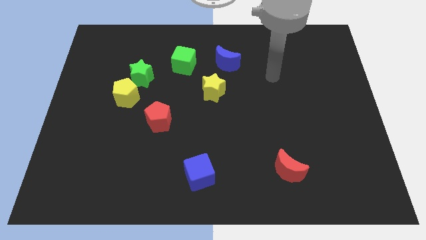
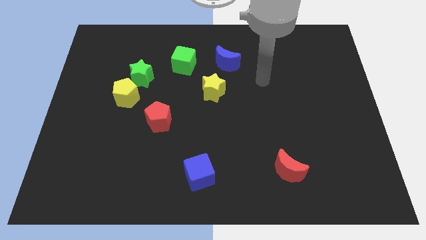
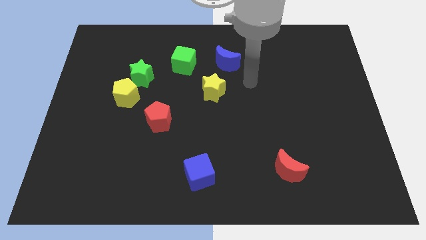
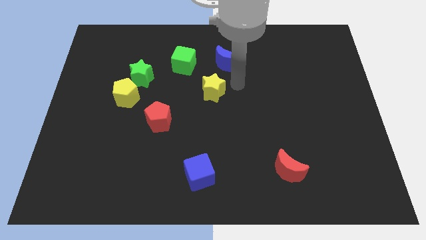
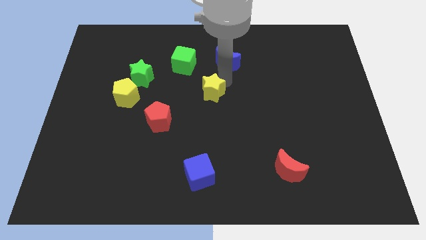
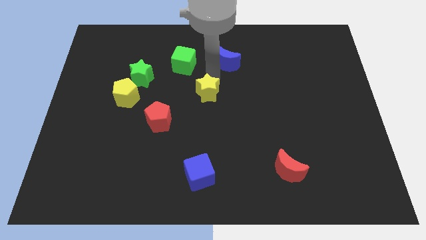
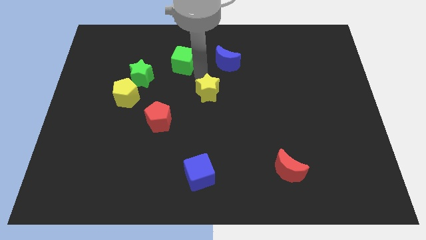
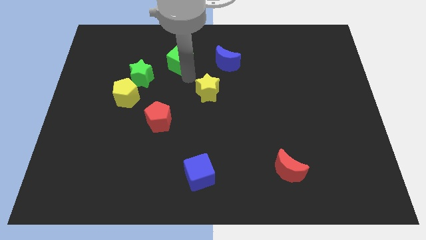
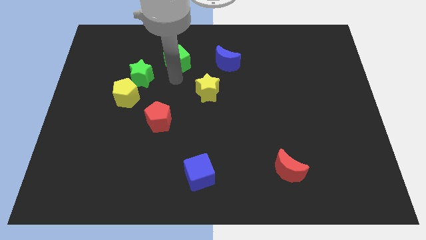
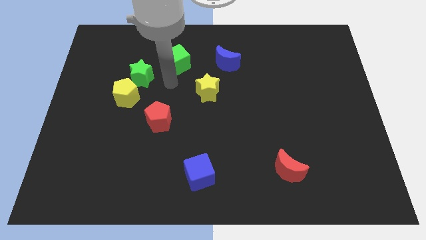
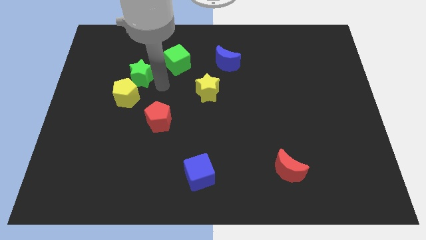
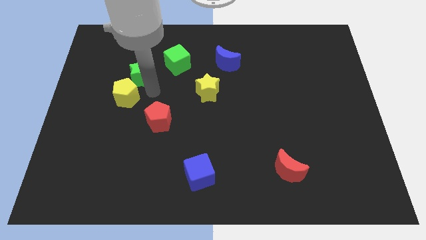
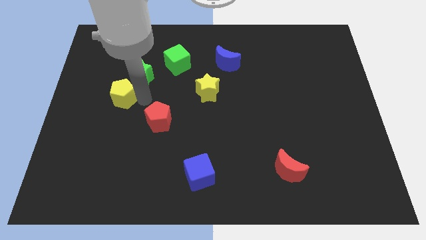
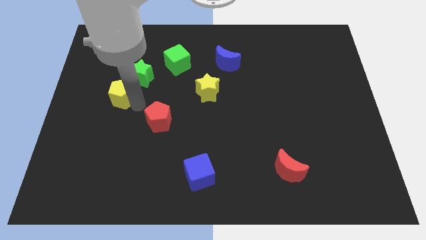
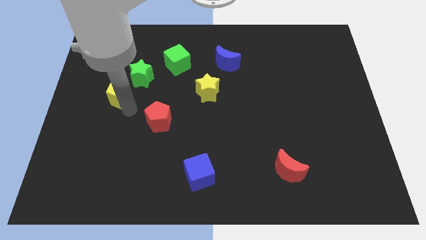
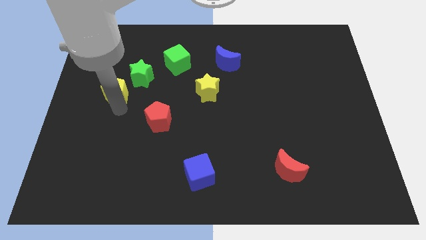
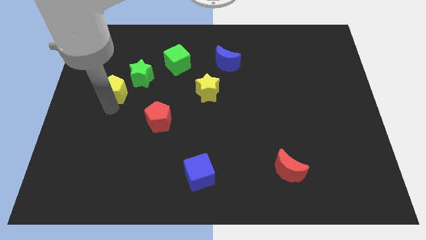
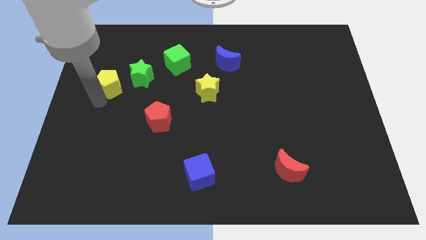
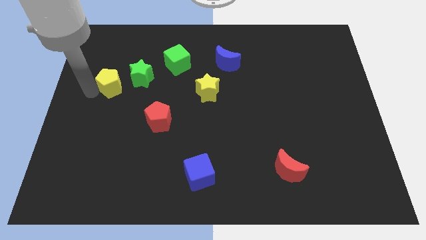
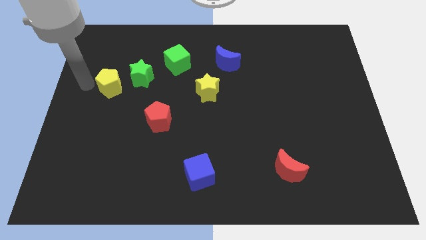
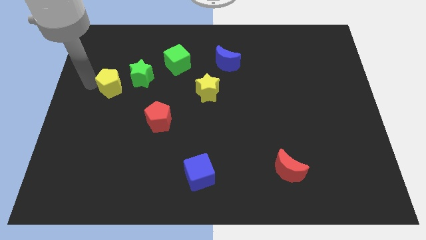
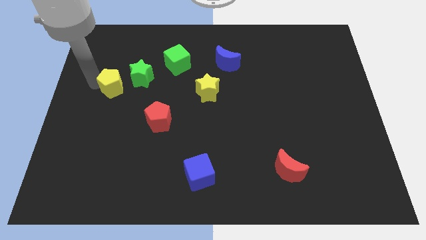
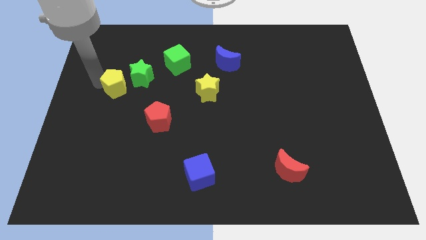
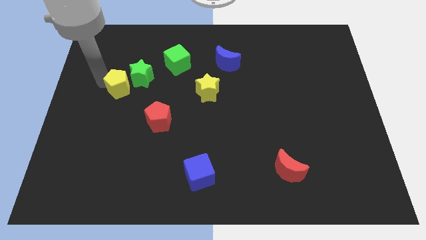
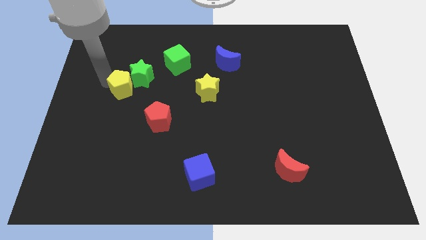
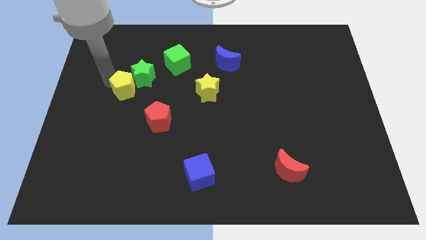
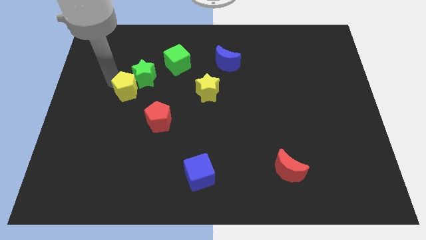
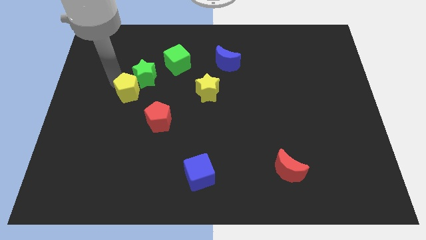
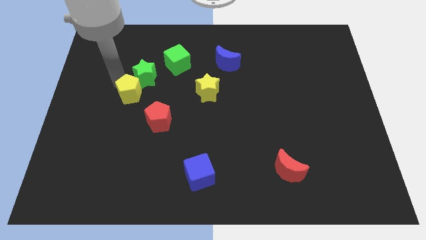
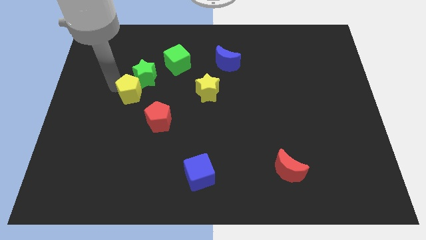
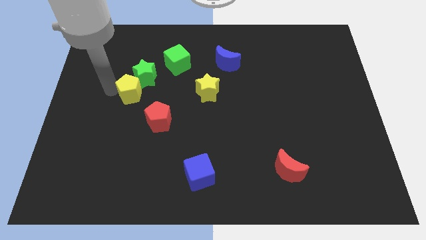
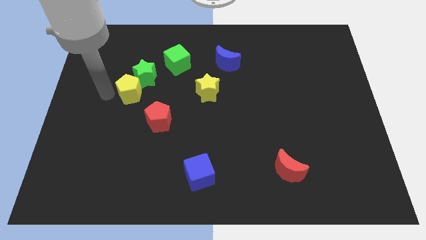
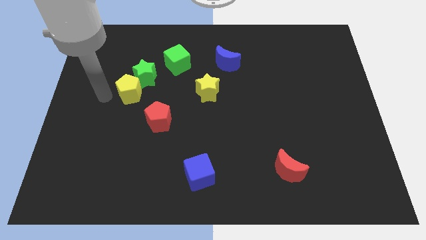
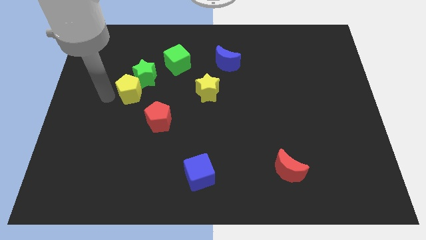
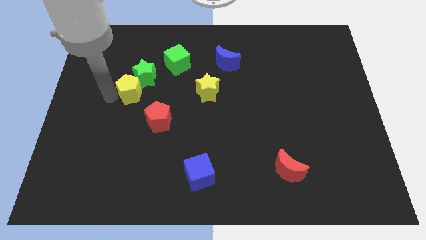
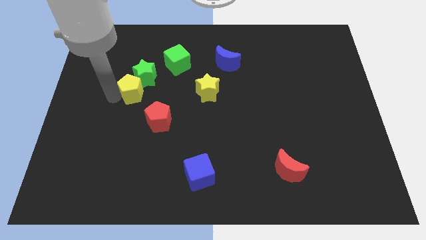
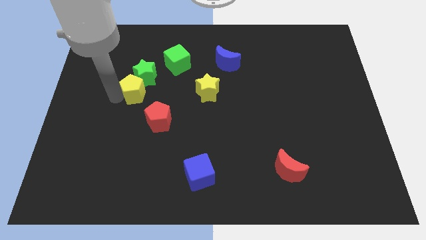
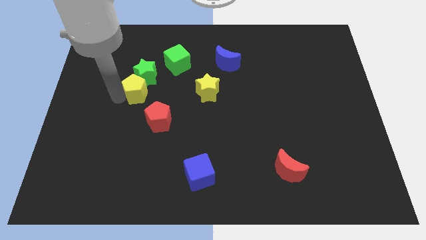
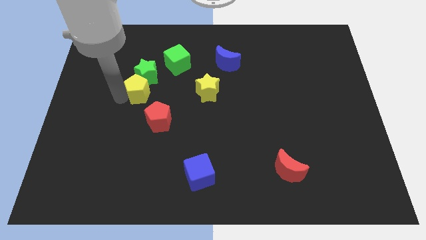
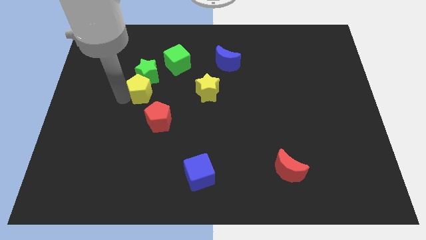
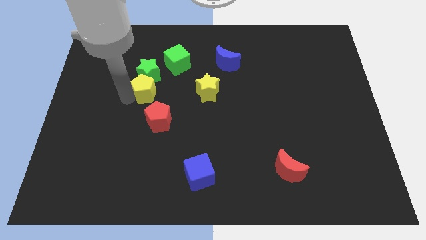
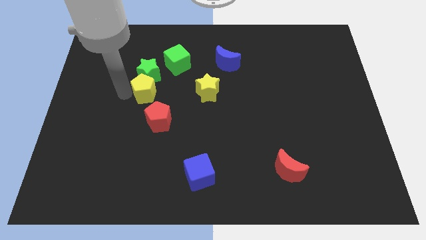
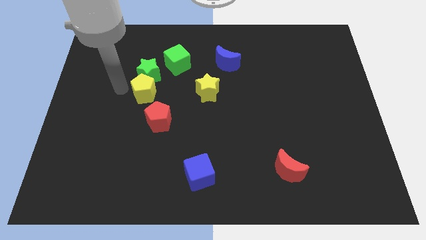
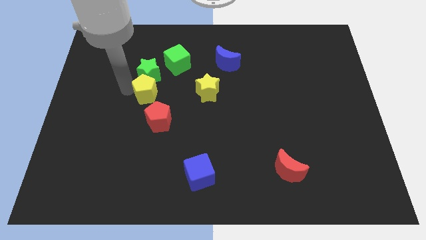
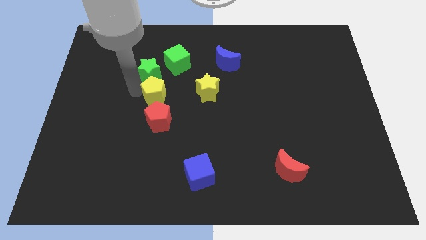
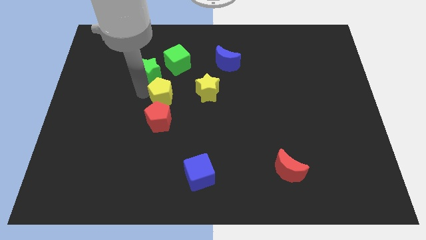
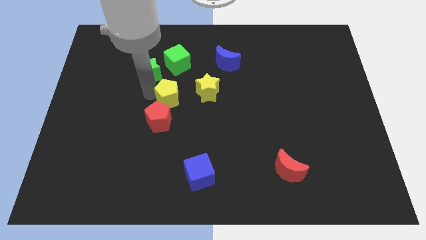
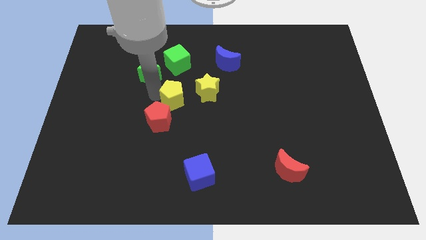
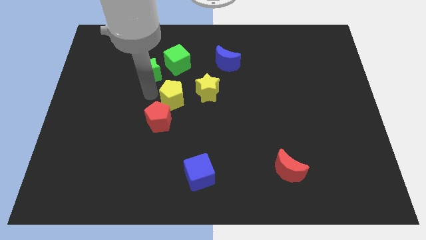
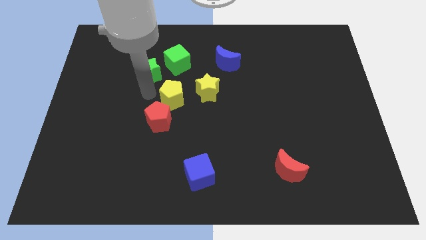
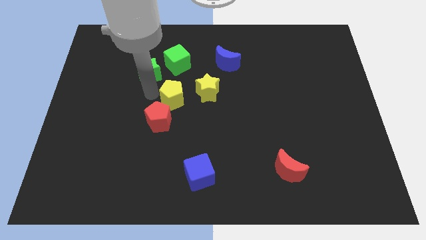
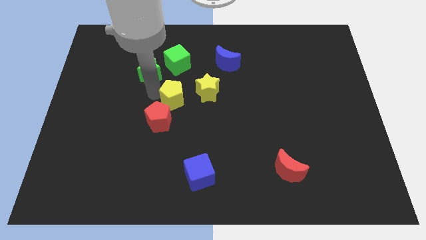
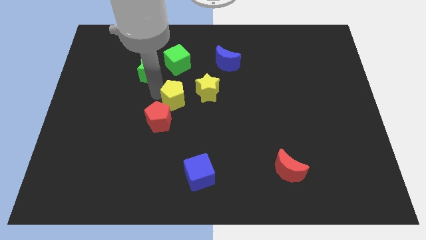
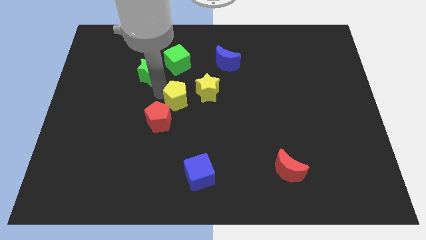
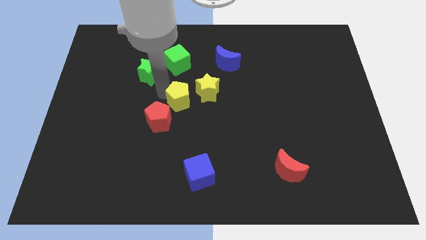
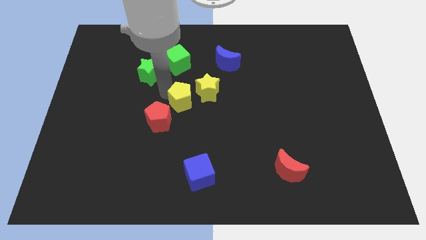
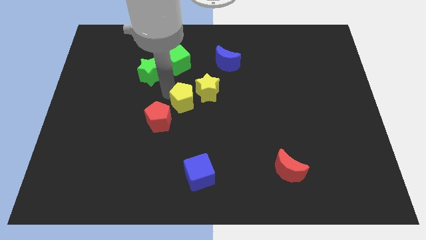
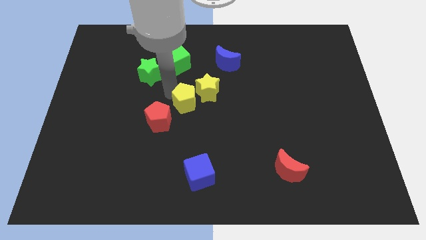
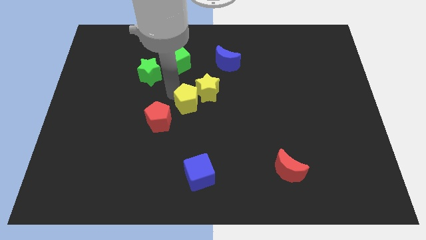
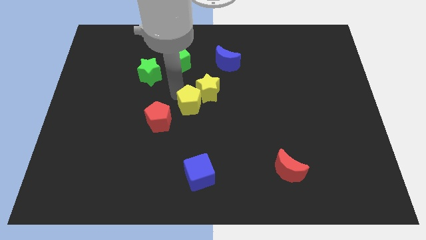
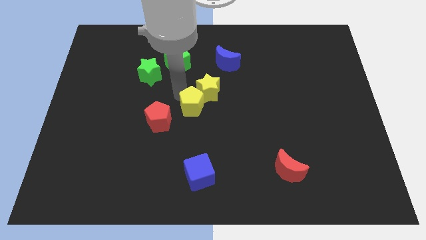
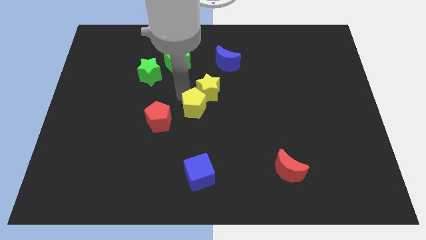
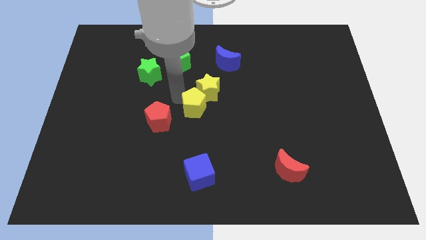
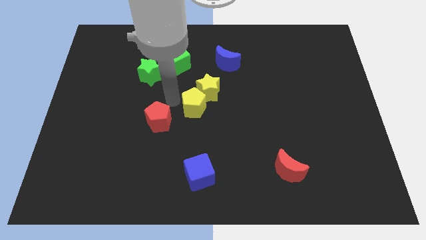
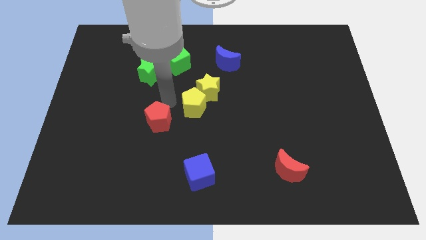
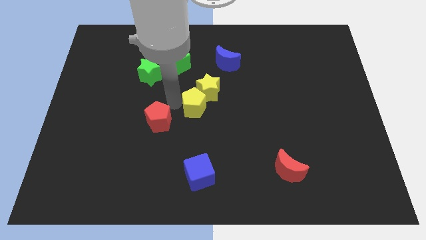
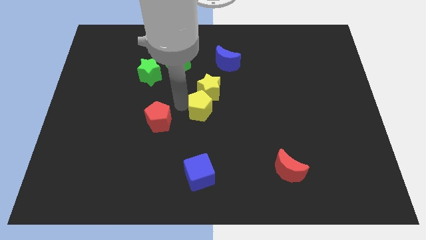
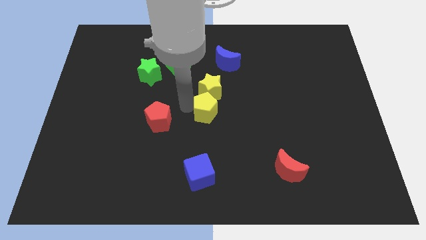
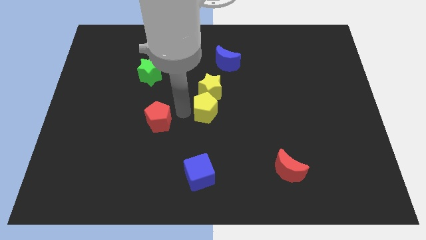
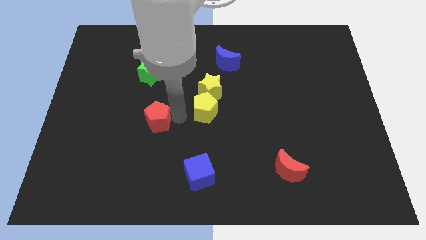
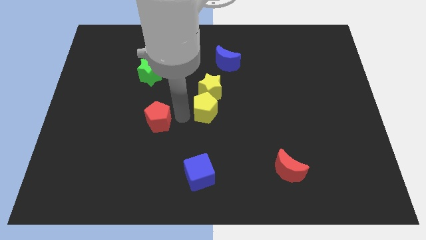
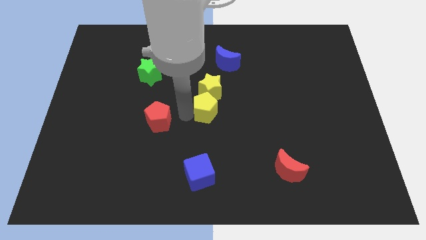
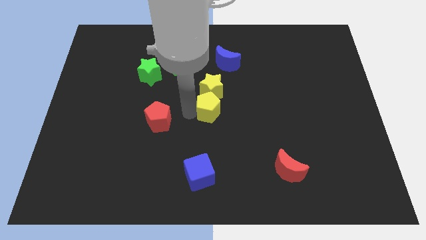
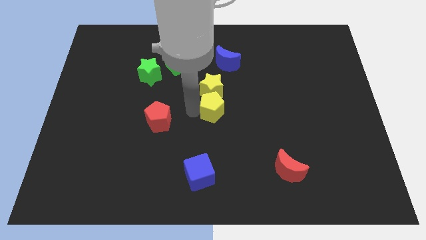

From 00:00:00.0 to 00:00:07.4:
slide the yellow pentagon to the right

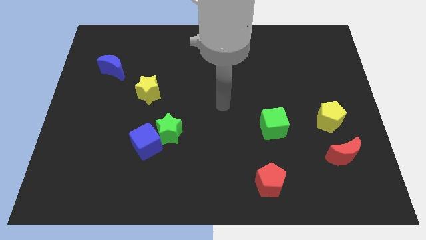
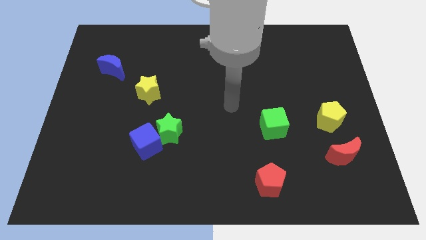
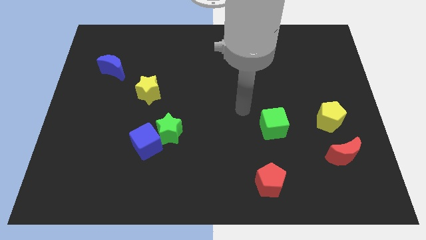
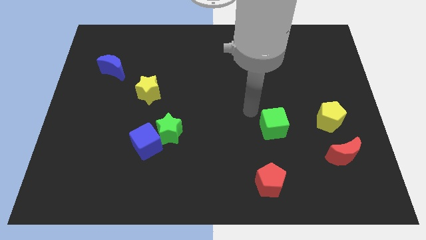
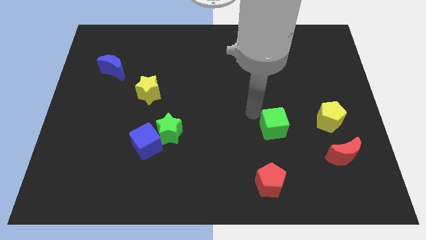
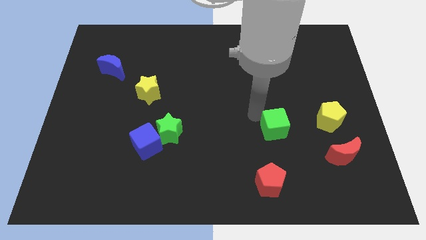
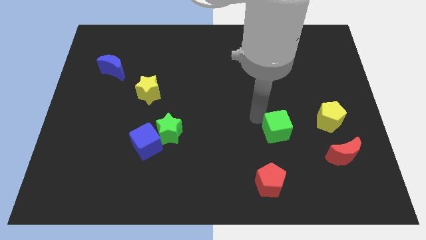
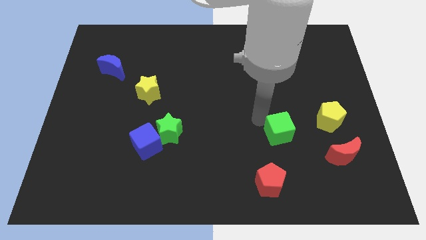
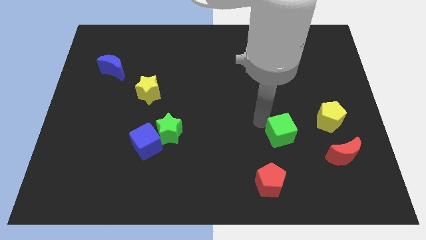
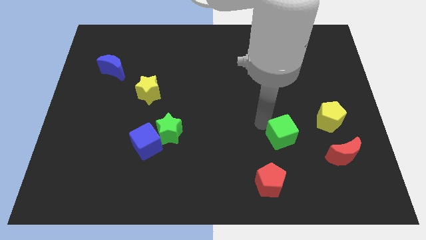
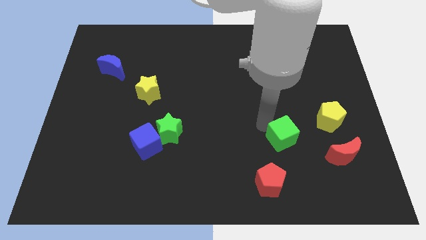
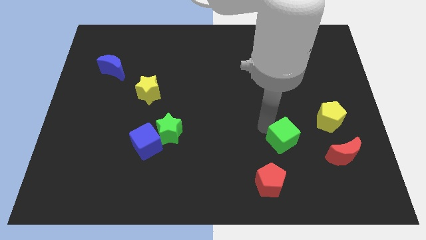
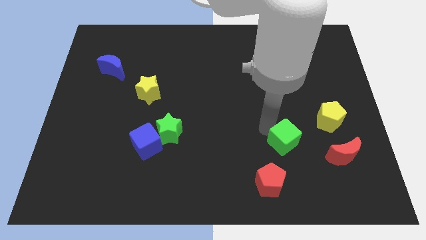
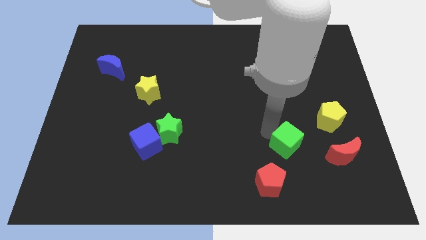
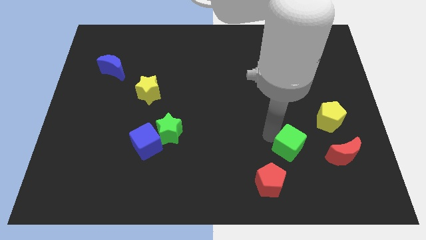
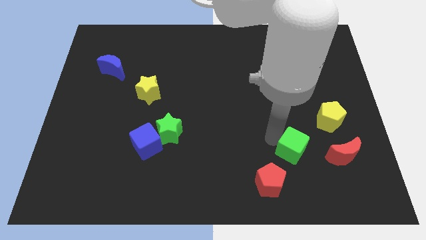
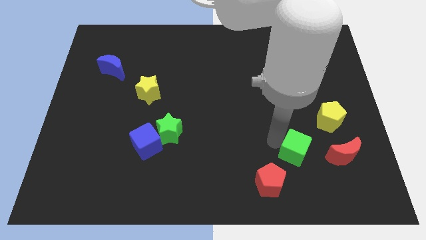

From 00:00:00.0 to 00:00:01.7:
move the green cube downwards and to the right slightly
